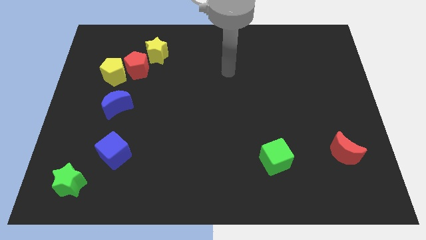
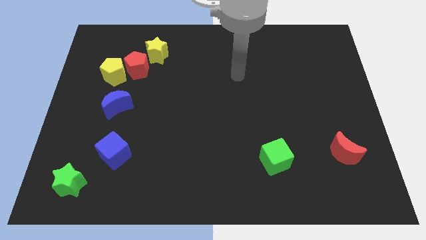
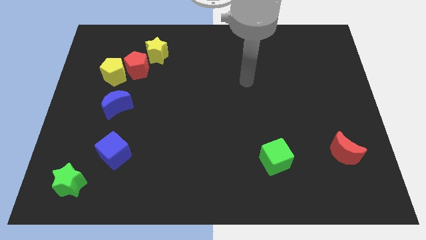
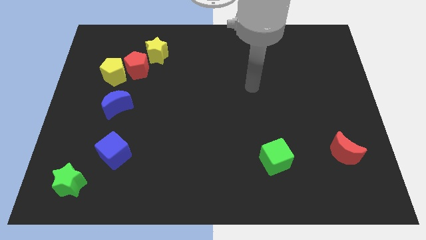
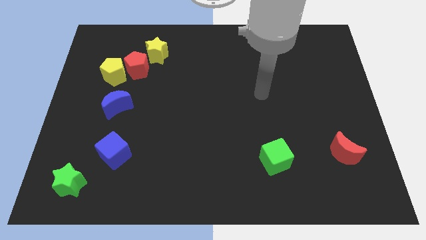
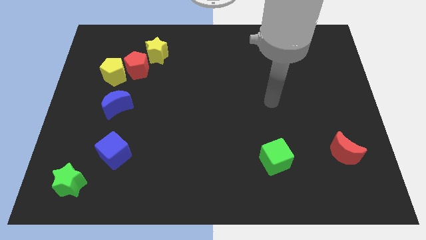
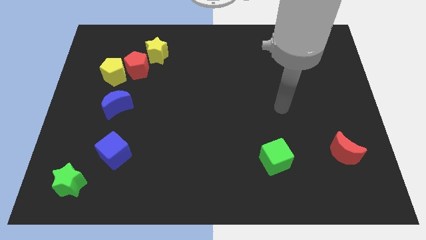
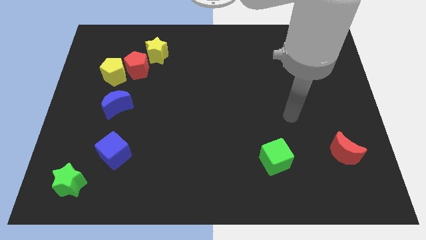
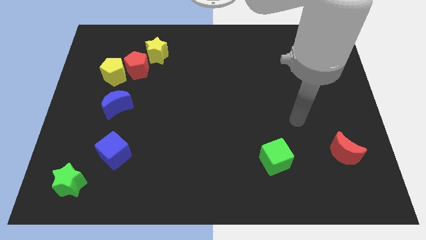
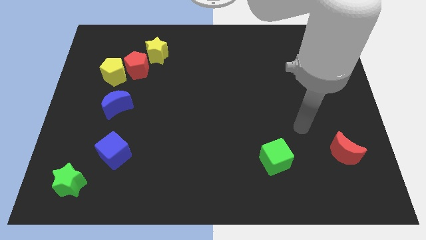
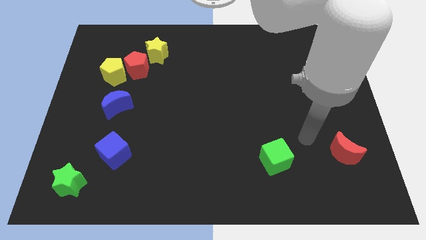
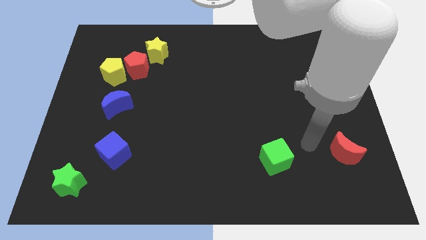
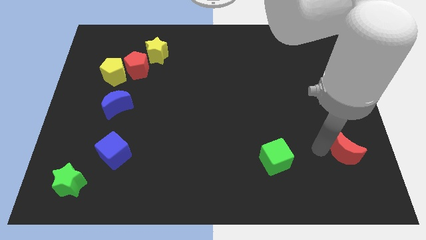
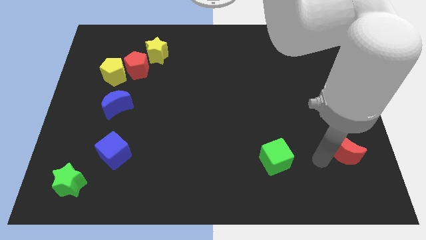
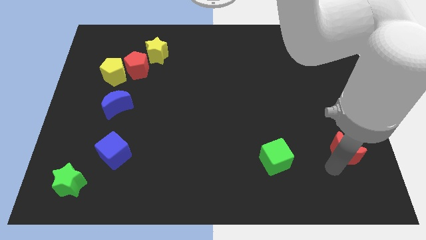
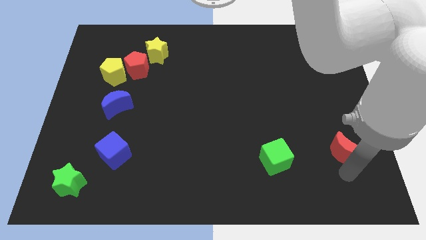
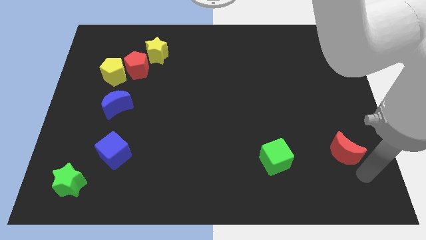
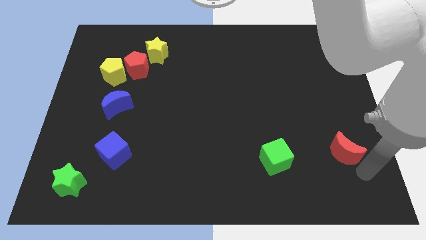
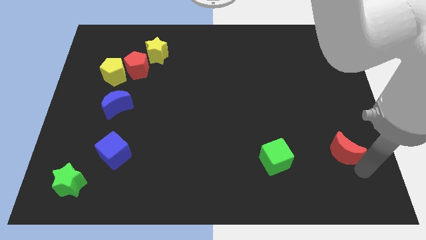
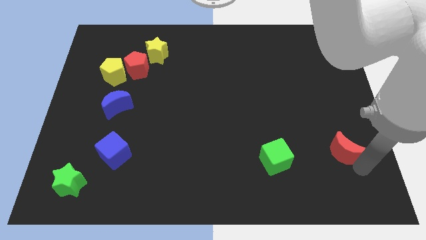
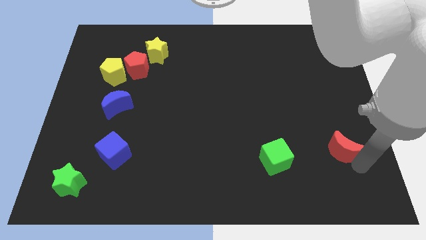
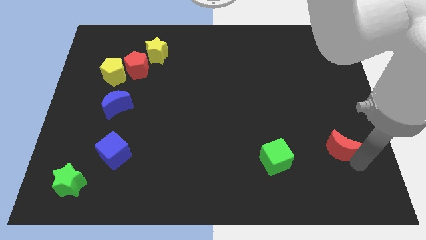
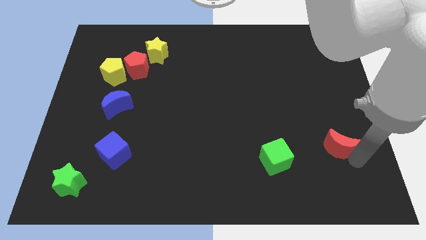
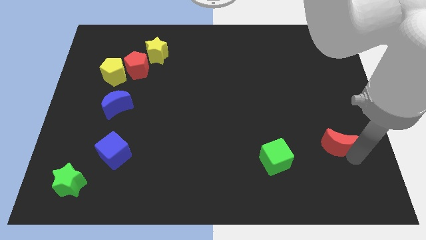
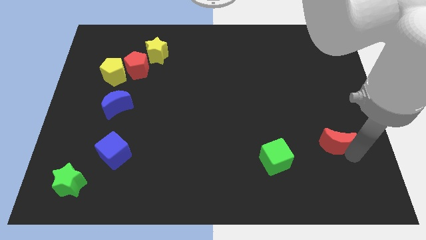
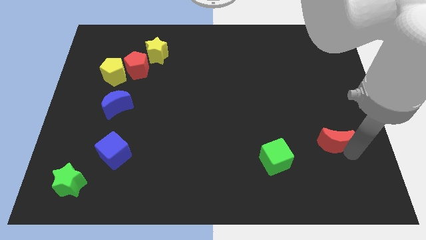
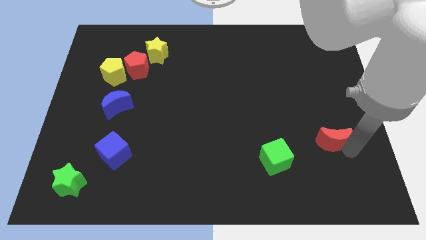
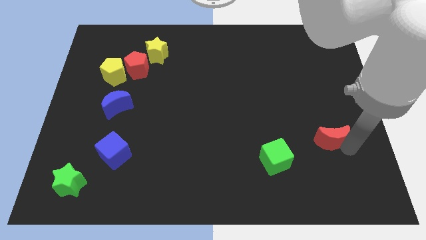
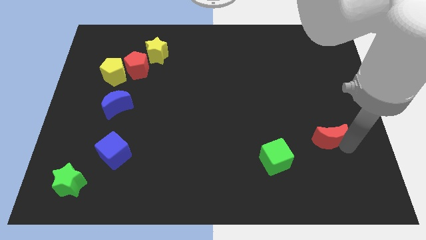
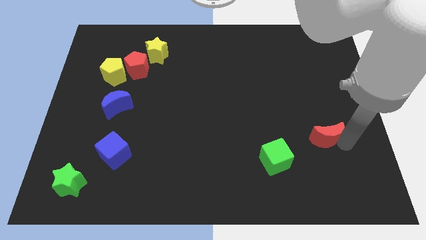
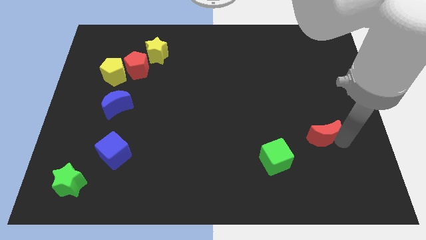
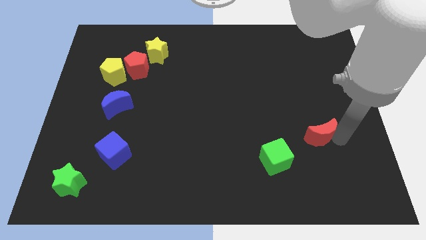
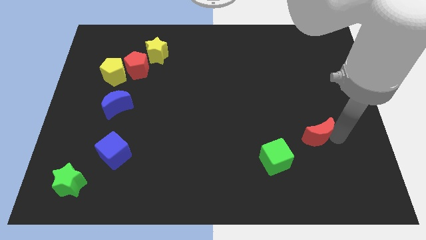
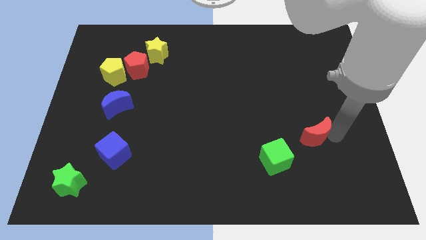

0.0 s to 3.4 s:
slide the red moon up and to the left a bit

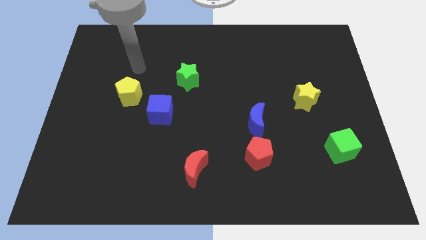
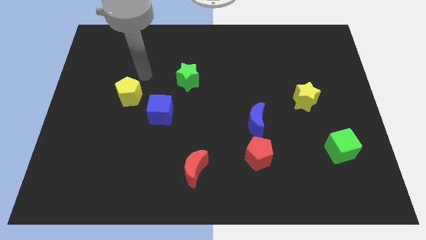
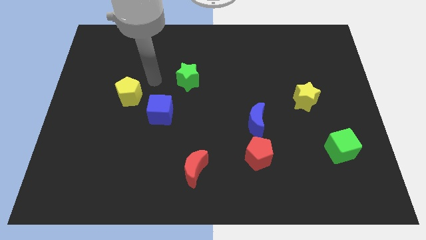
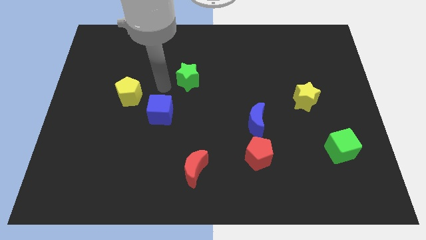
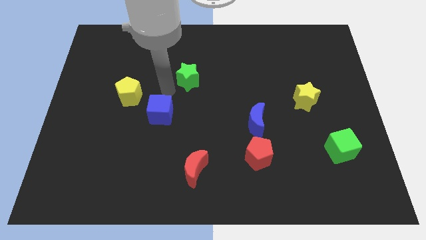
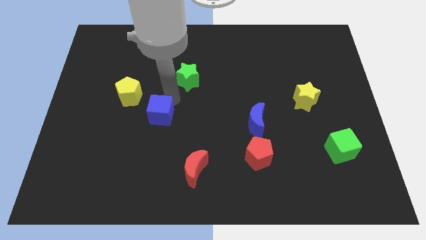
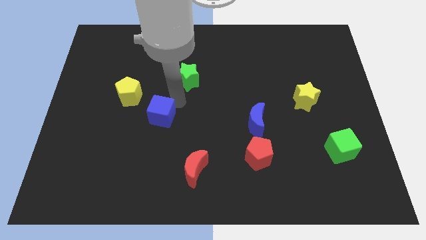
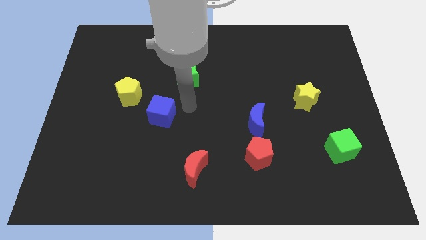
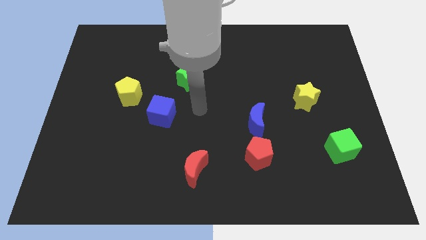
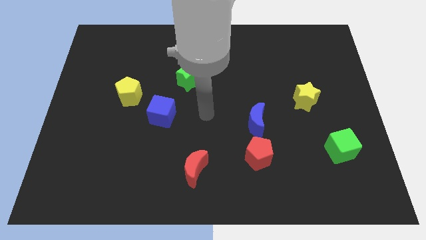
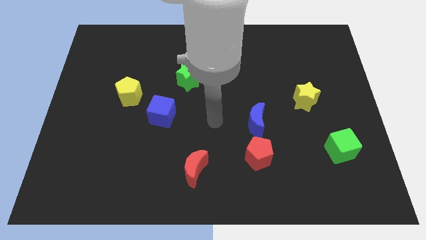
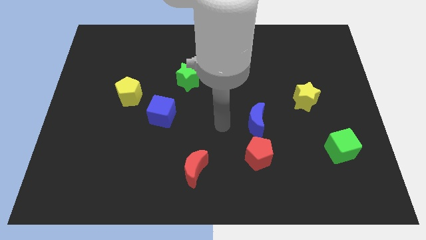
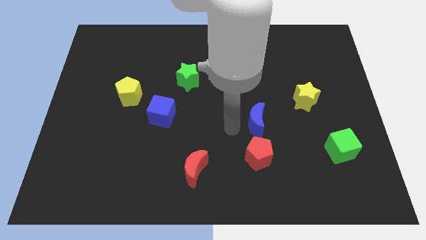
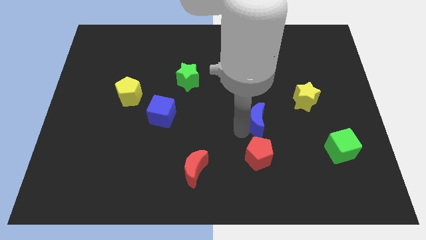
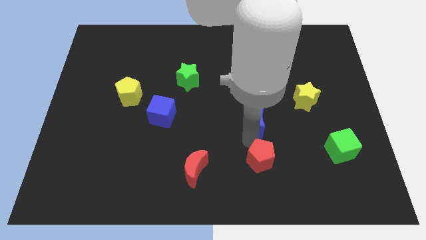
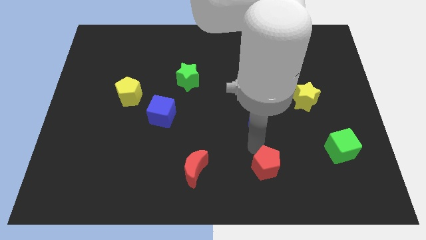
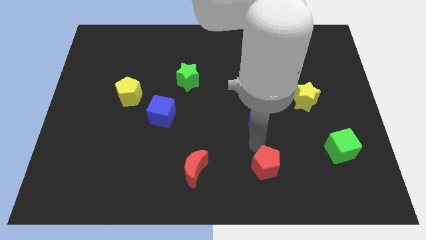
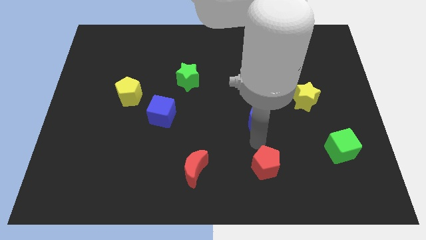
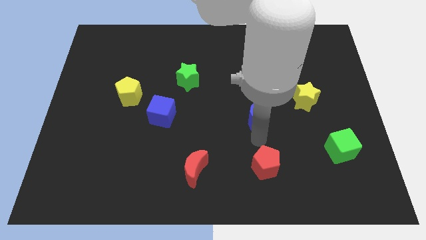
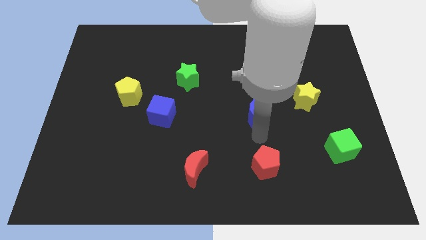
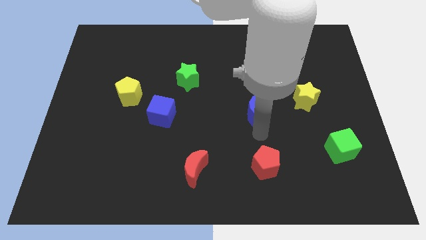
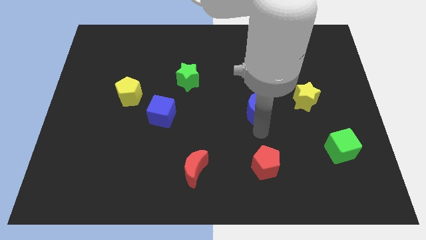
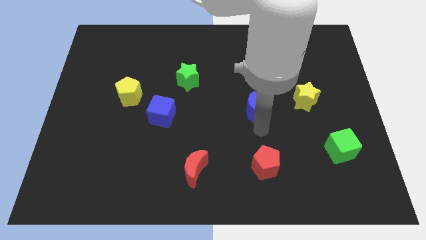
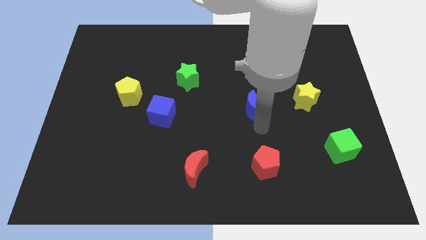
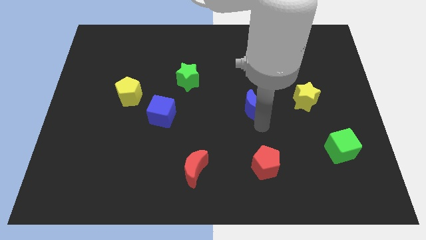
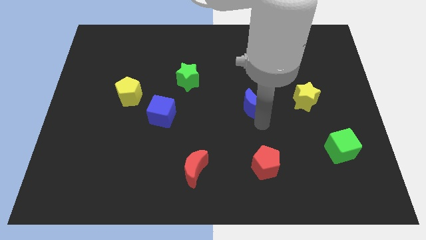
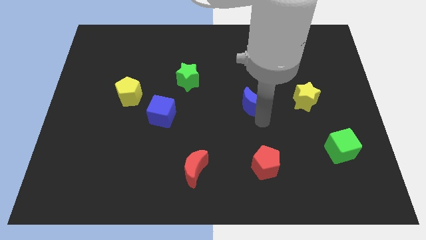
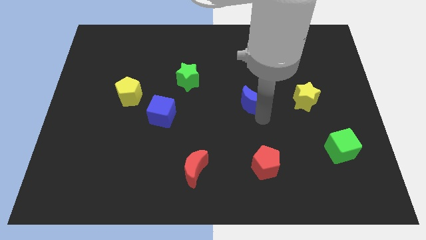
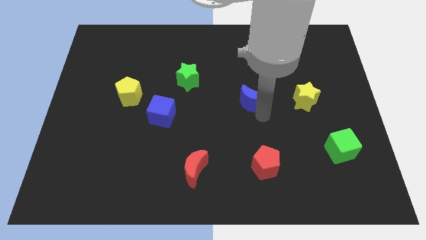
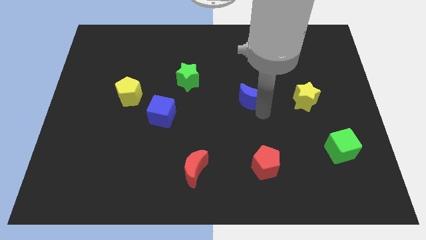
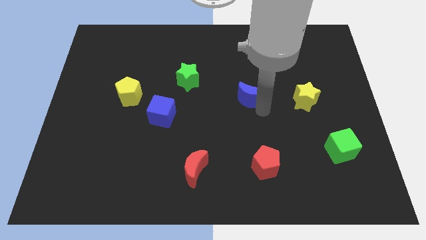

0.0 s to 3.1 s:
push the blue moon somewhat upwards

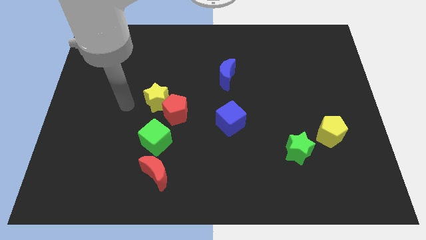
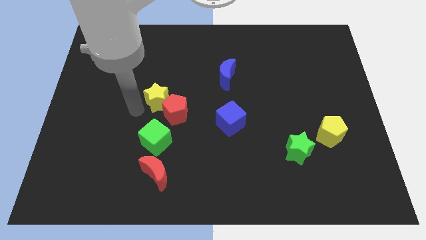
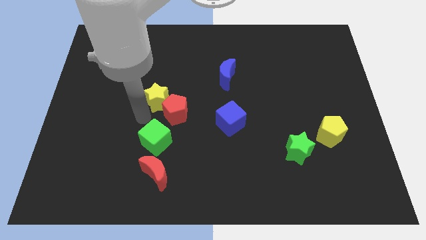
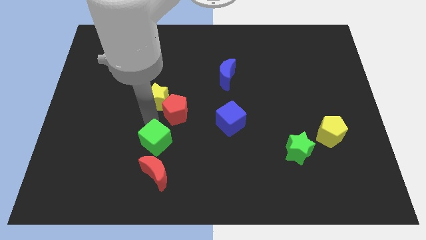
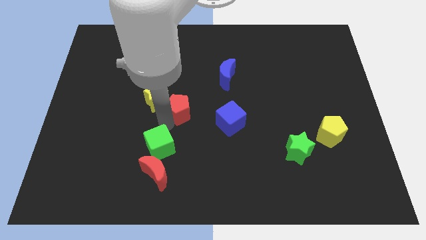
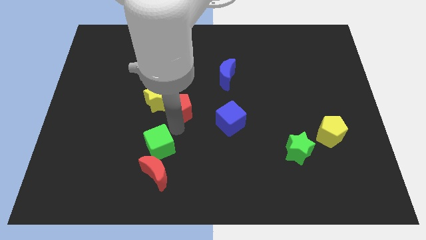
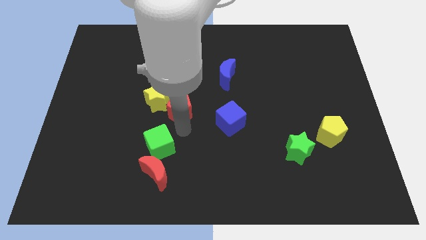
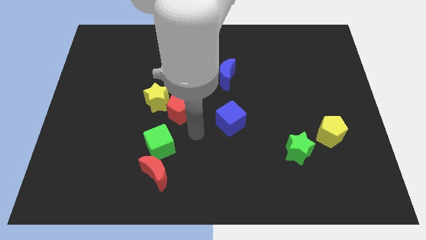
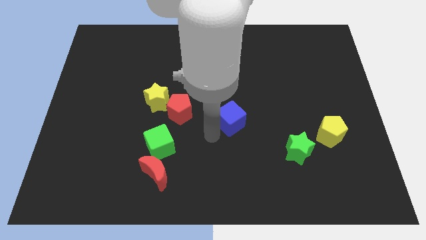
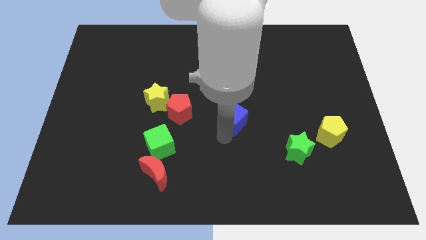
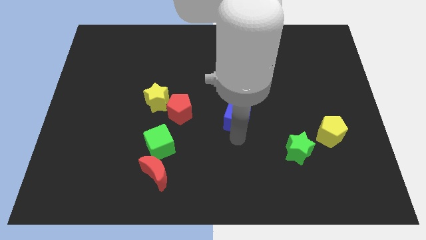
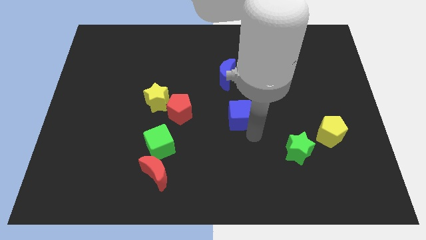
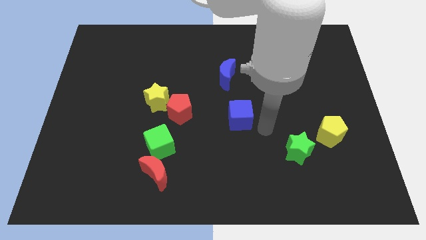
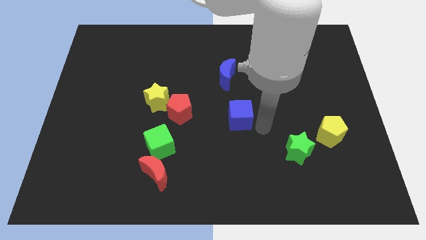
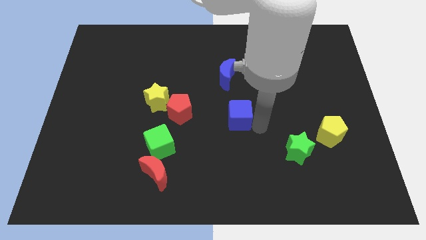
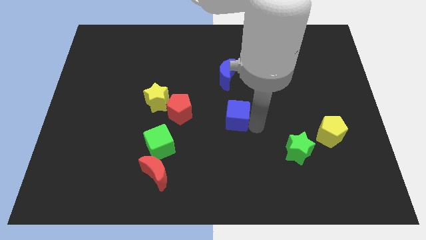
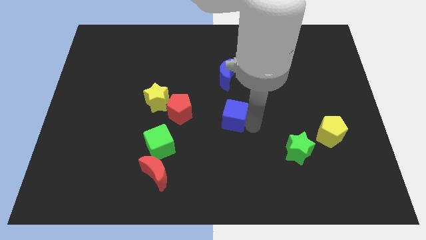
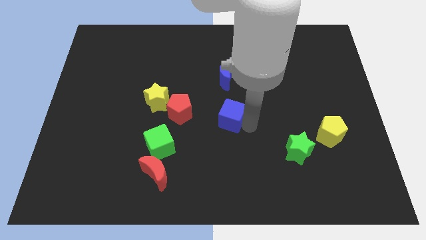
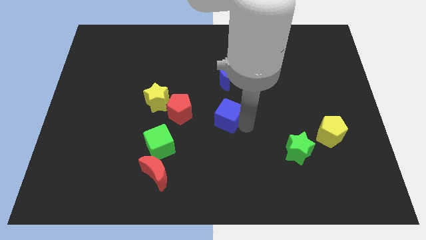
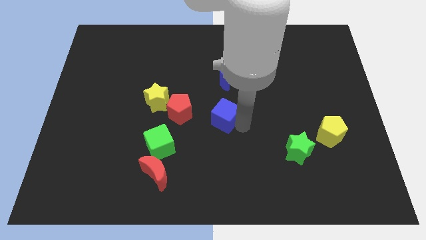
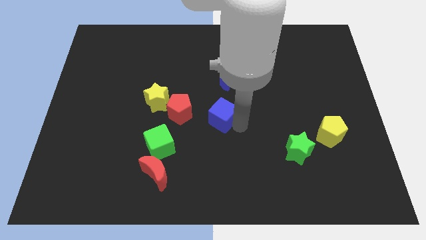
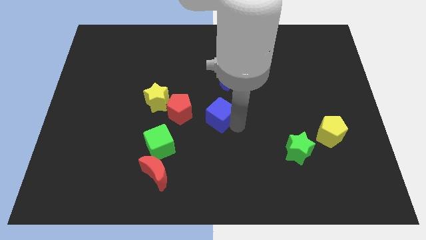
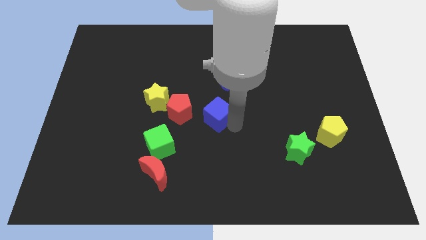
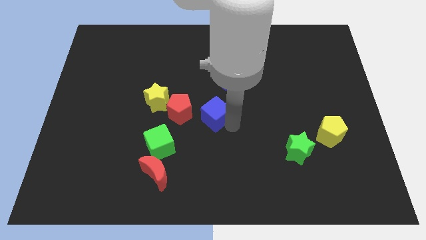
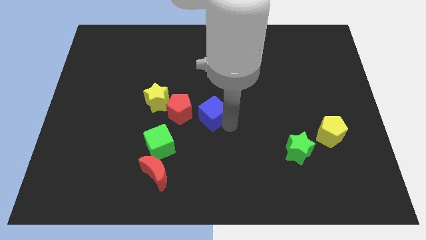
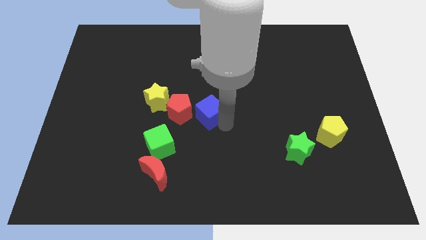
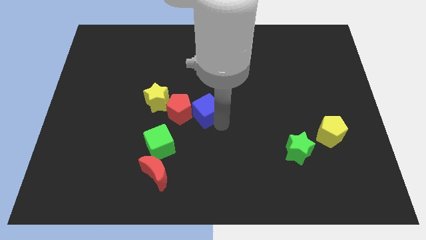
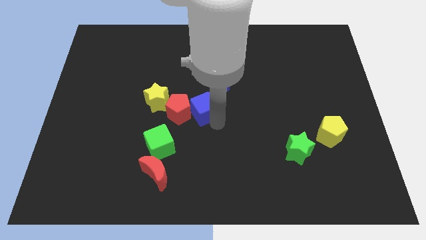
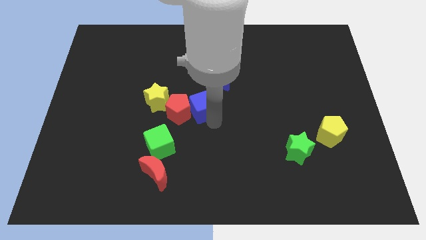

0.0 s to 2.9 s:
move the blue cube diagonally upwards and left a little bit
